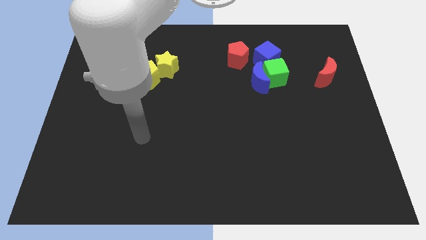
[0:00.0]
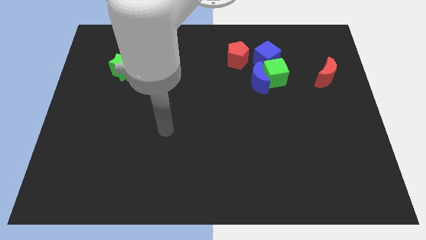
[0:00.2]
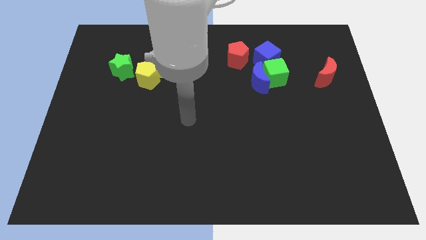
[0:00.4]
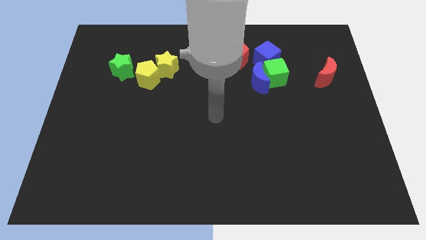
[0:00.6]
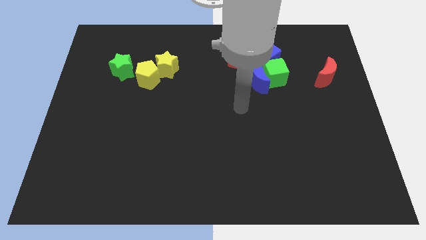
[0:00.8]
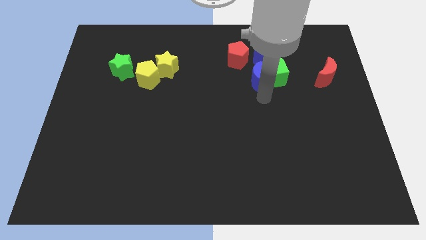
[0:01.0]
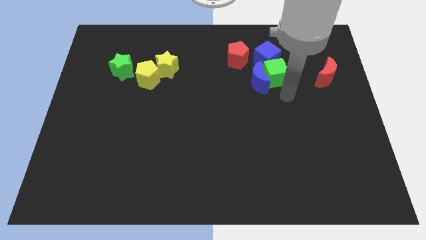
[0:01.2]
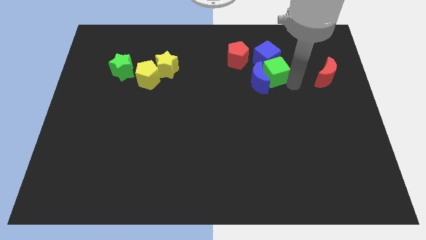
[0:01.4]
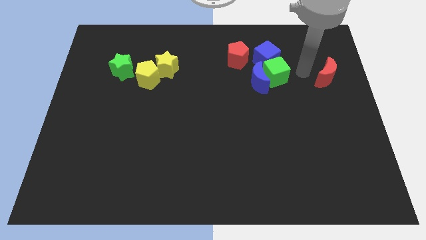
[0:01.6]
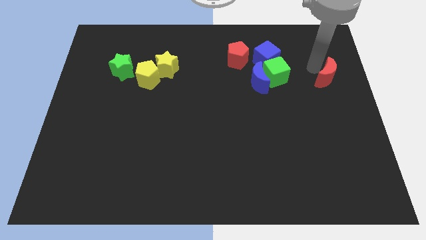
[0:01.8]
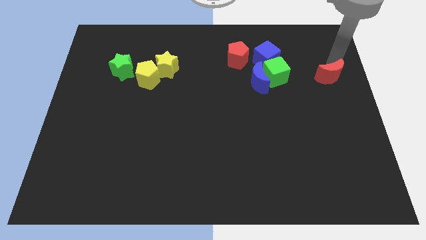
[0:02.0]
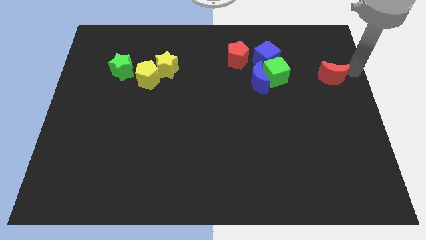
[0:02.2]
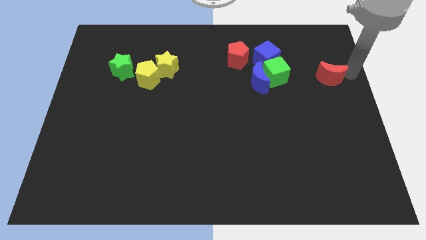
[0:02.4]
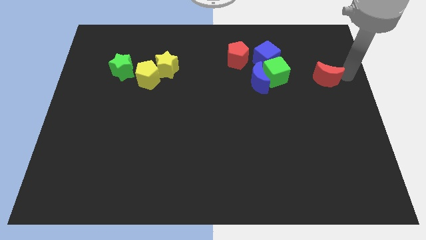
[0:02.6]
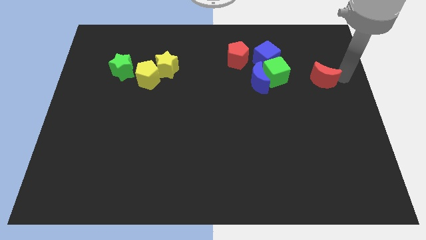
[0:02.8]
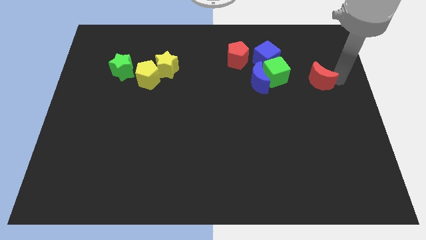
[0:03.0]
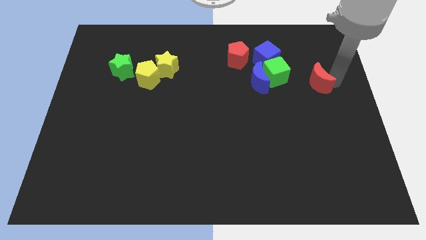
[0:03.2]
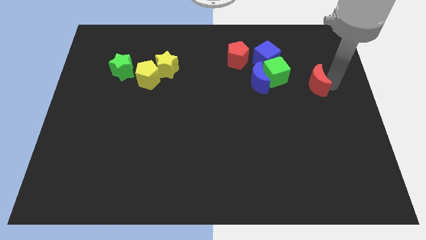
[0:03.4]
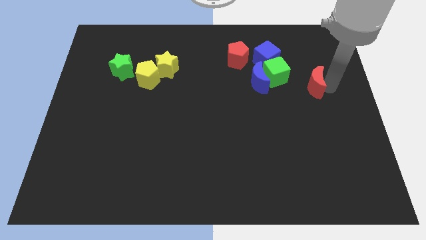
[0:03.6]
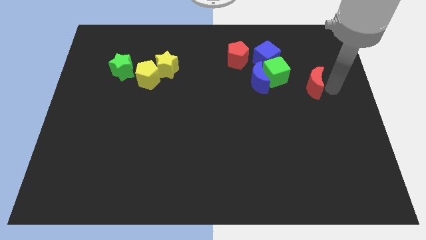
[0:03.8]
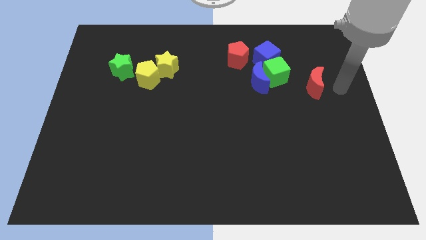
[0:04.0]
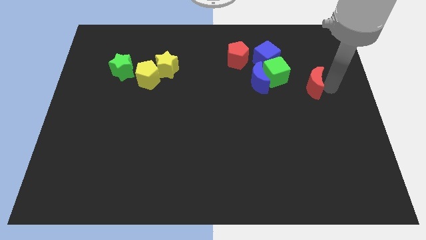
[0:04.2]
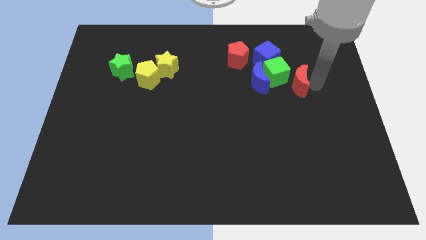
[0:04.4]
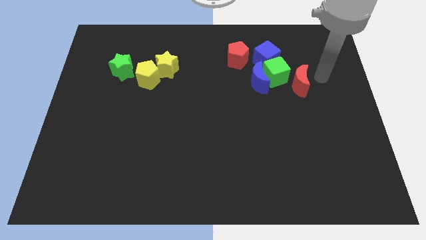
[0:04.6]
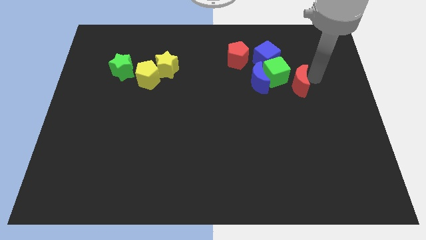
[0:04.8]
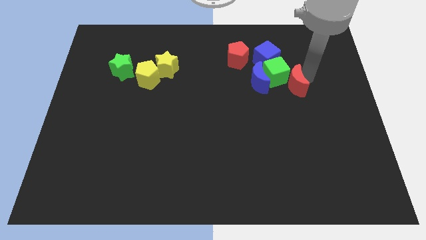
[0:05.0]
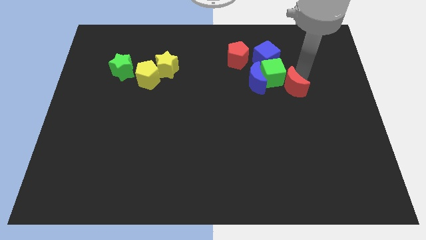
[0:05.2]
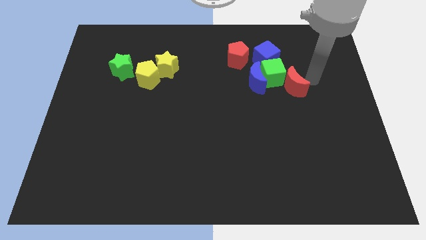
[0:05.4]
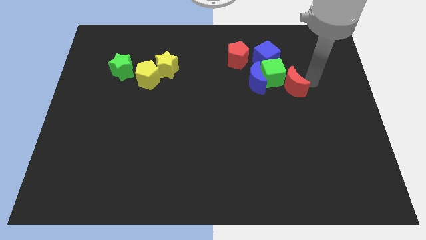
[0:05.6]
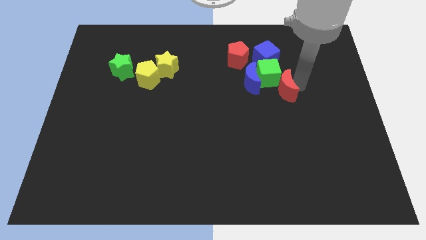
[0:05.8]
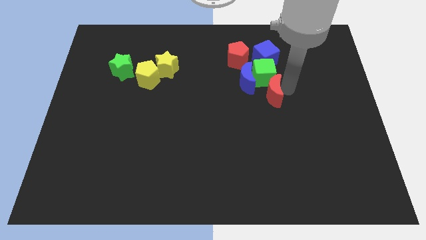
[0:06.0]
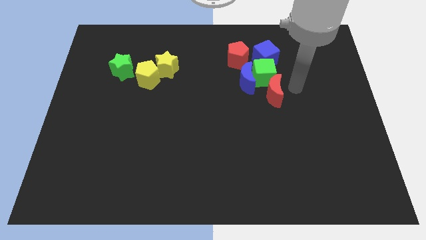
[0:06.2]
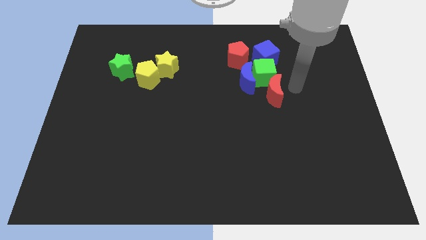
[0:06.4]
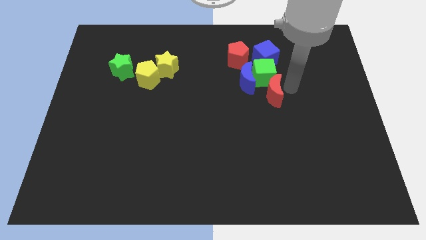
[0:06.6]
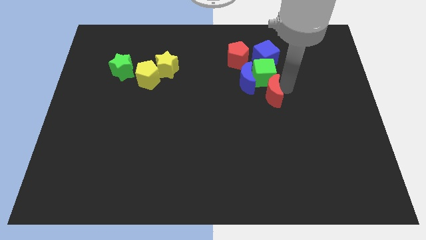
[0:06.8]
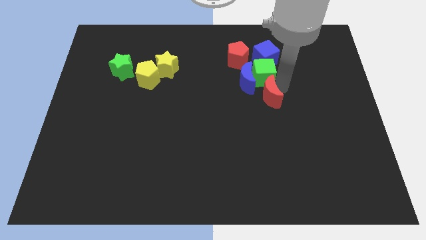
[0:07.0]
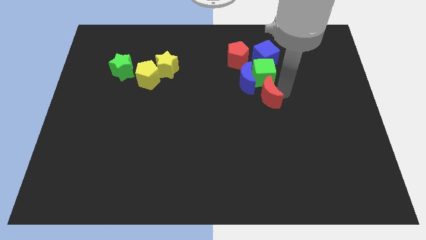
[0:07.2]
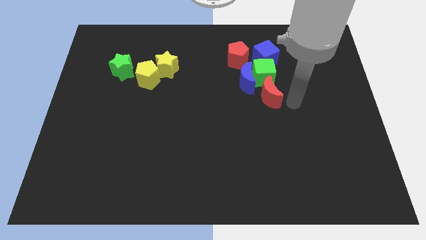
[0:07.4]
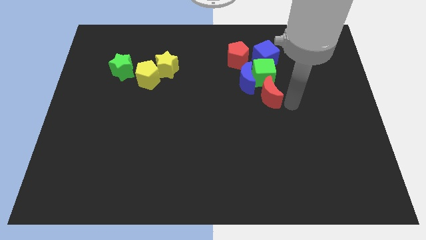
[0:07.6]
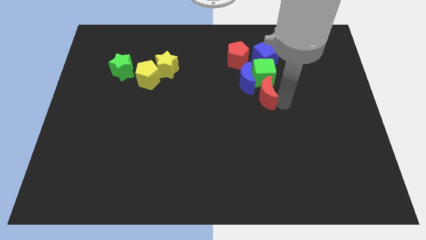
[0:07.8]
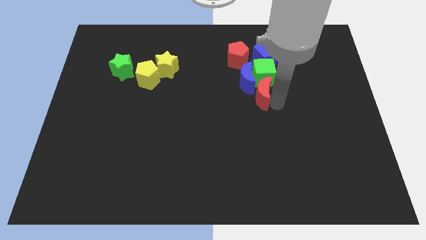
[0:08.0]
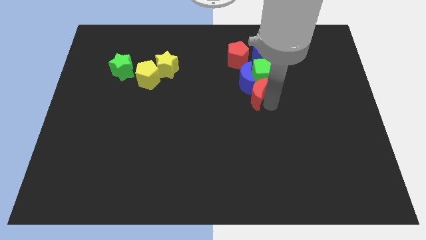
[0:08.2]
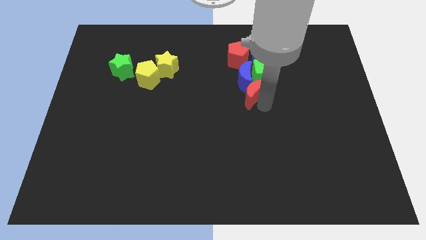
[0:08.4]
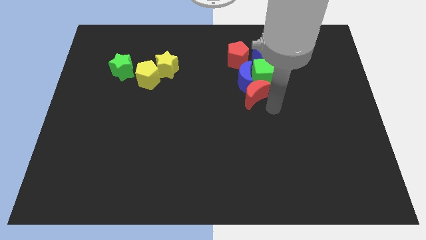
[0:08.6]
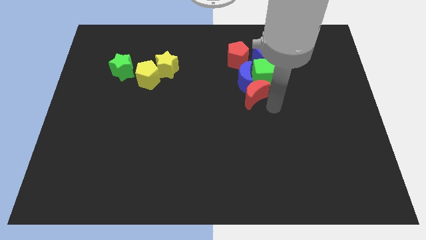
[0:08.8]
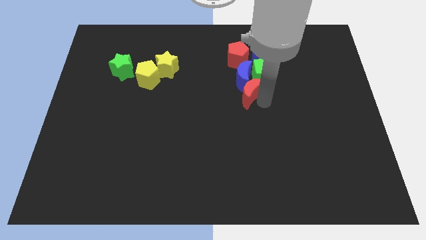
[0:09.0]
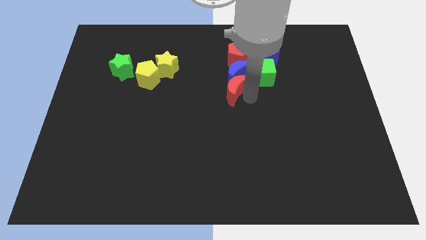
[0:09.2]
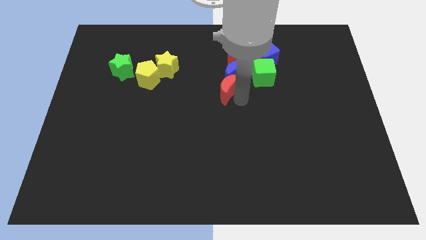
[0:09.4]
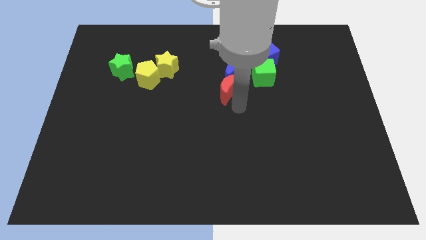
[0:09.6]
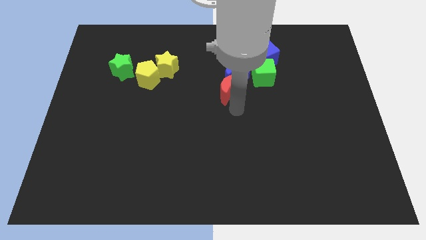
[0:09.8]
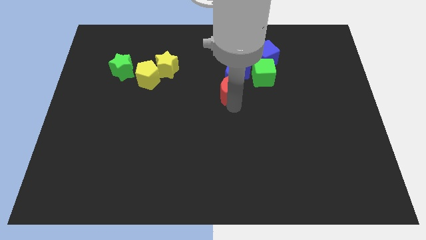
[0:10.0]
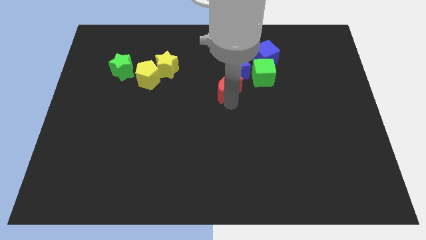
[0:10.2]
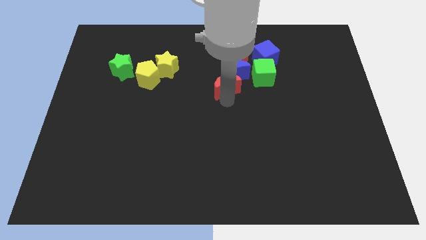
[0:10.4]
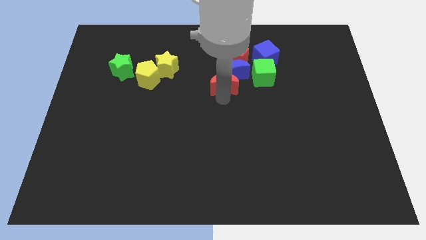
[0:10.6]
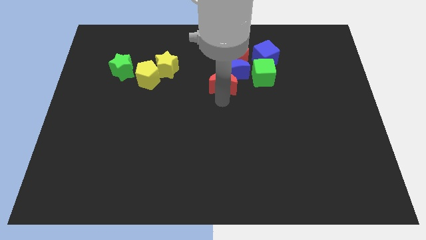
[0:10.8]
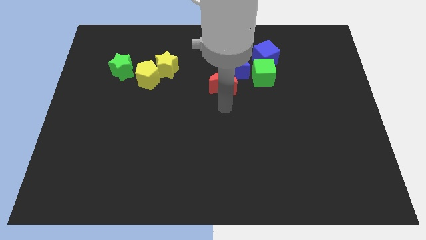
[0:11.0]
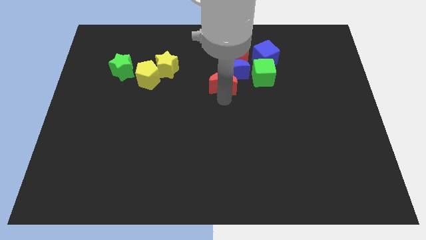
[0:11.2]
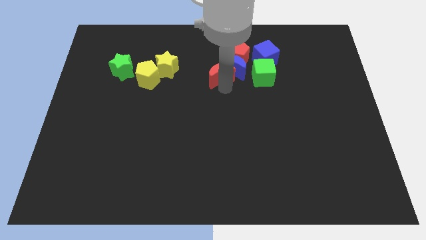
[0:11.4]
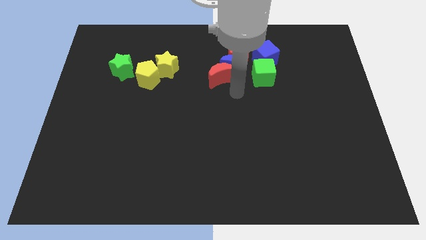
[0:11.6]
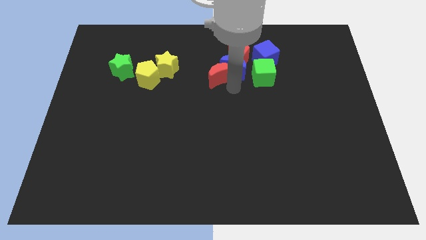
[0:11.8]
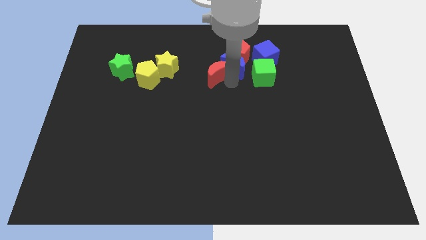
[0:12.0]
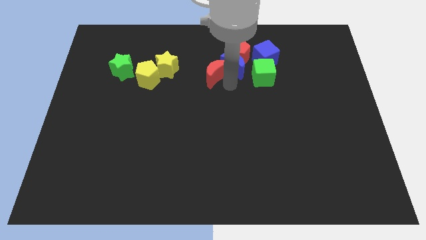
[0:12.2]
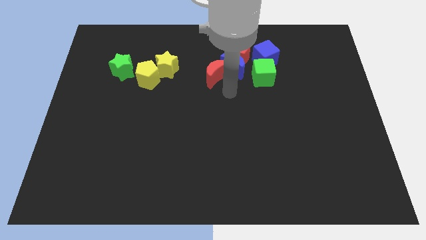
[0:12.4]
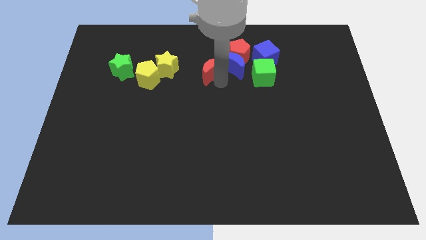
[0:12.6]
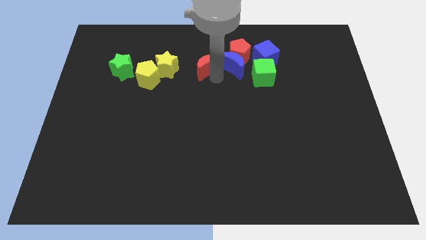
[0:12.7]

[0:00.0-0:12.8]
push the red moon left of the red pentagon
